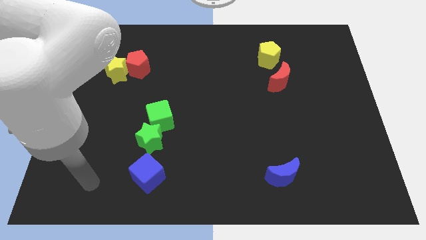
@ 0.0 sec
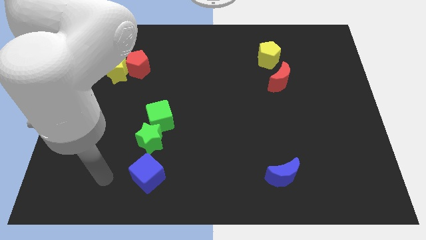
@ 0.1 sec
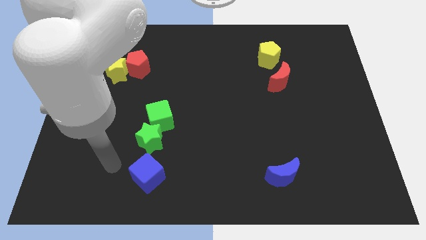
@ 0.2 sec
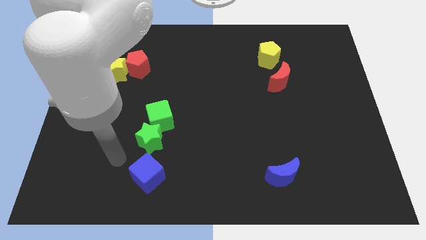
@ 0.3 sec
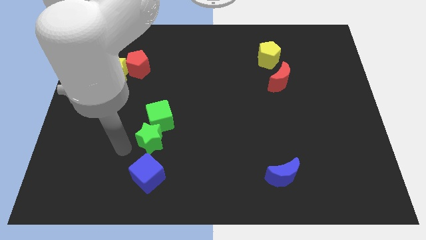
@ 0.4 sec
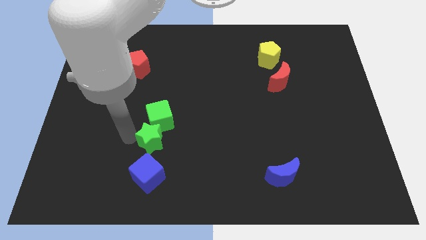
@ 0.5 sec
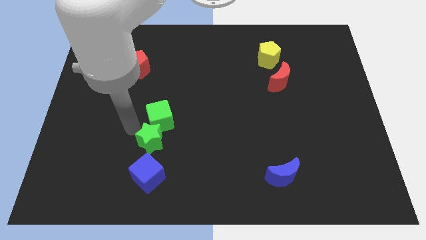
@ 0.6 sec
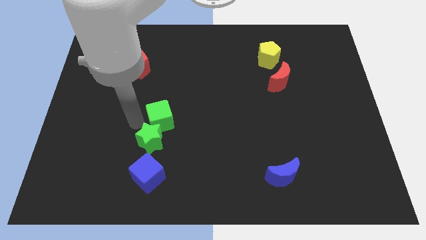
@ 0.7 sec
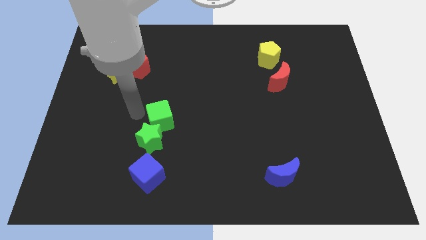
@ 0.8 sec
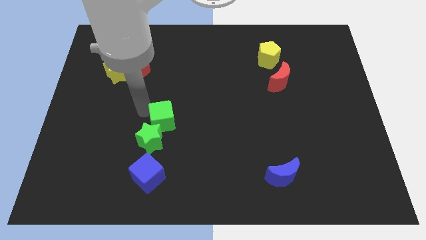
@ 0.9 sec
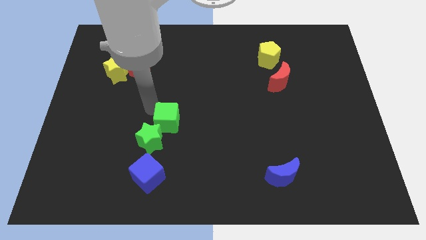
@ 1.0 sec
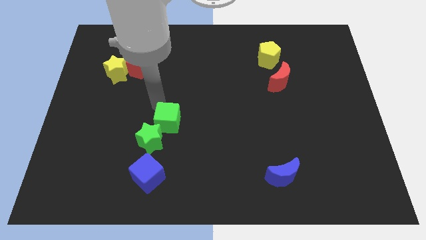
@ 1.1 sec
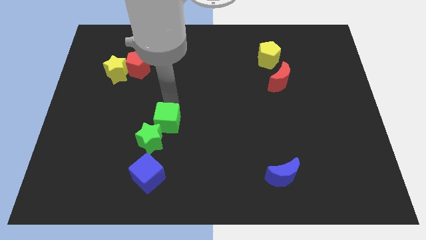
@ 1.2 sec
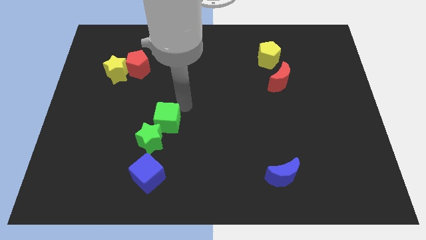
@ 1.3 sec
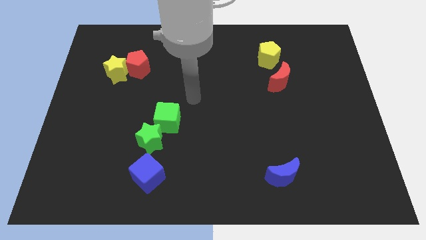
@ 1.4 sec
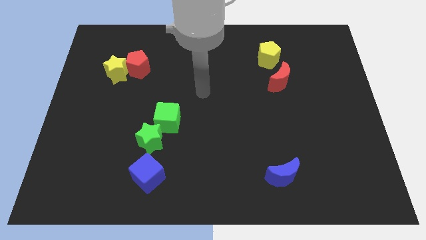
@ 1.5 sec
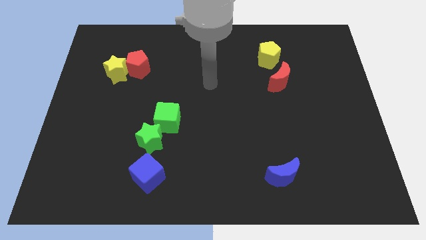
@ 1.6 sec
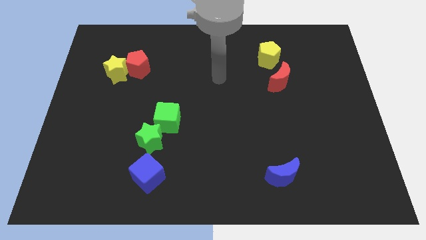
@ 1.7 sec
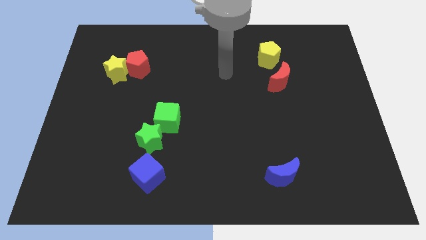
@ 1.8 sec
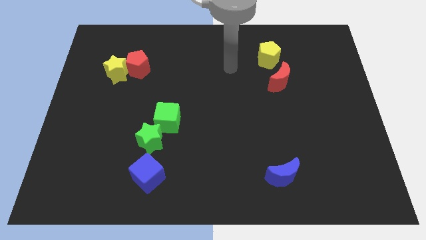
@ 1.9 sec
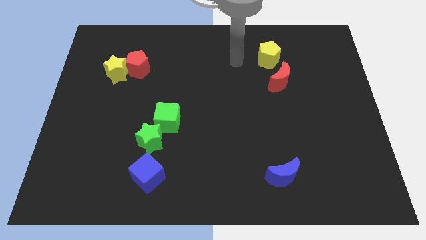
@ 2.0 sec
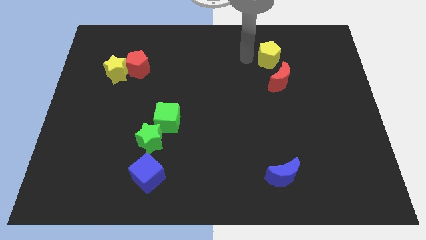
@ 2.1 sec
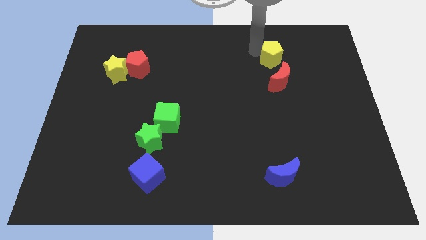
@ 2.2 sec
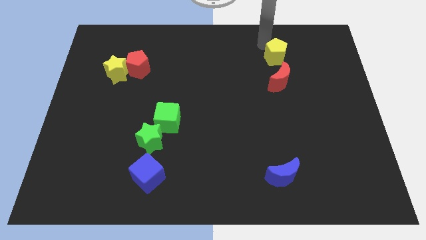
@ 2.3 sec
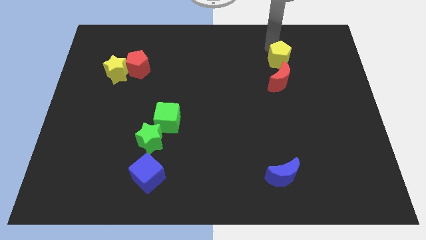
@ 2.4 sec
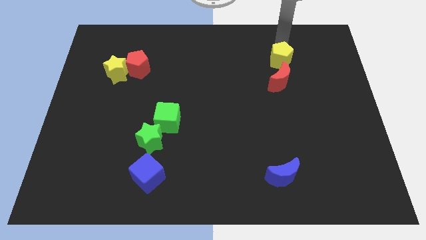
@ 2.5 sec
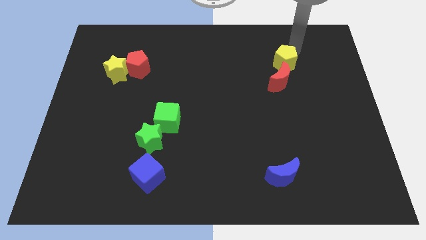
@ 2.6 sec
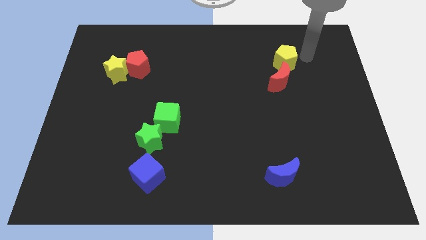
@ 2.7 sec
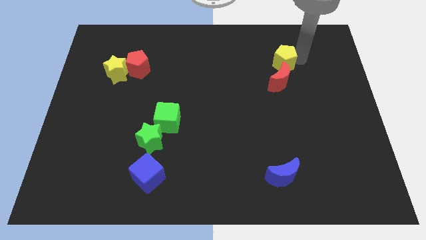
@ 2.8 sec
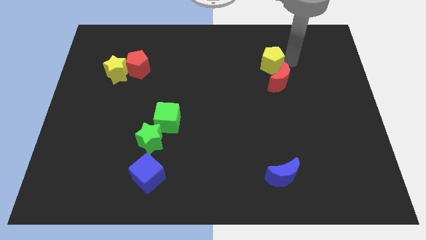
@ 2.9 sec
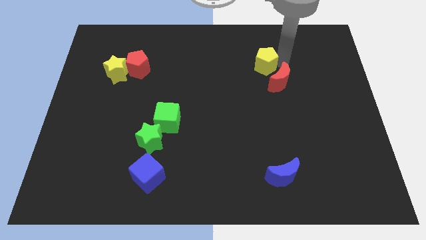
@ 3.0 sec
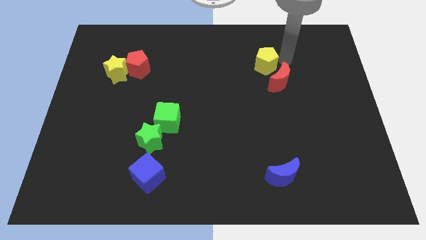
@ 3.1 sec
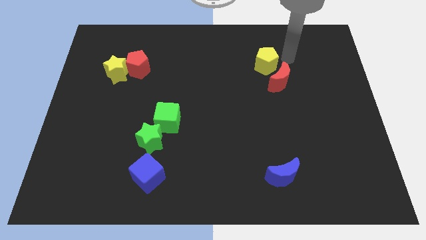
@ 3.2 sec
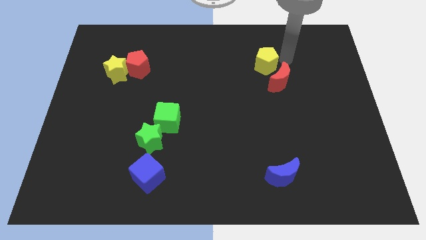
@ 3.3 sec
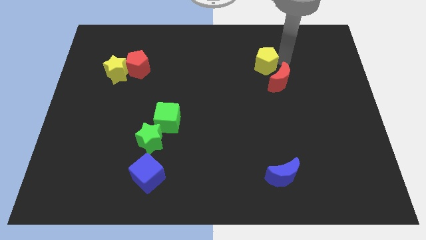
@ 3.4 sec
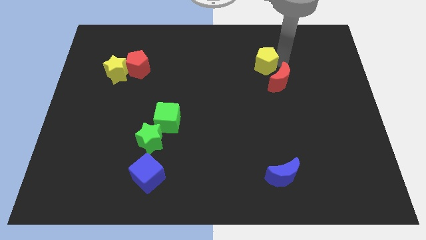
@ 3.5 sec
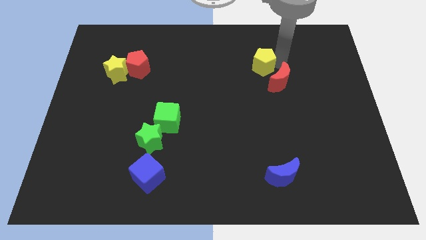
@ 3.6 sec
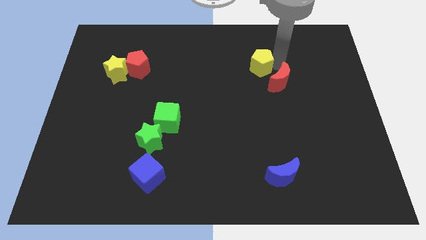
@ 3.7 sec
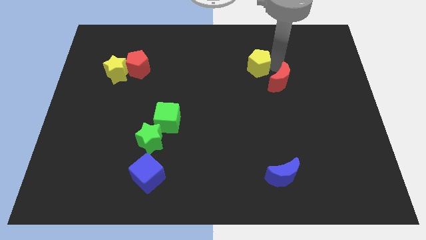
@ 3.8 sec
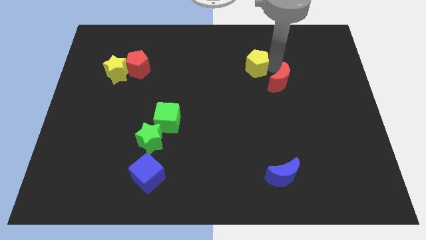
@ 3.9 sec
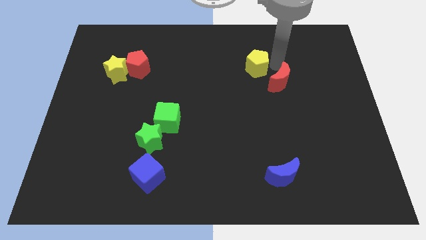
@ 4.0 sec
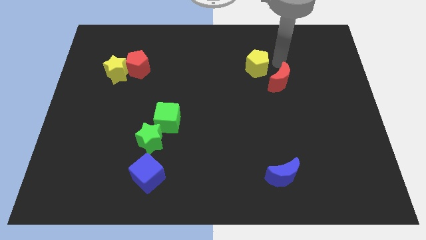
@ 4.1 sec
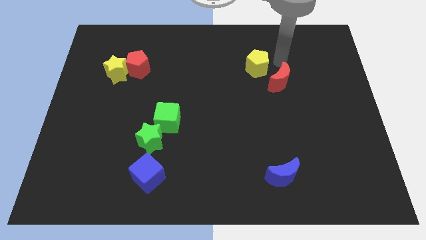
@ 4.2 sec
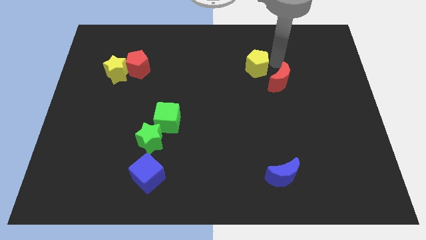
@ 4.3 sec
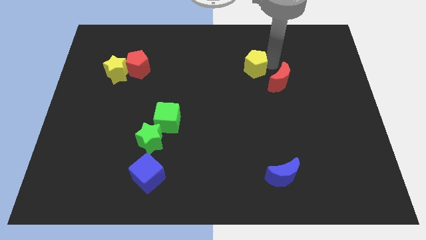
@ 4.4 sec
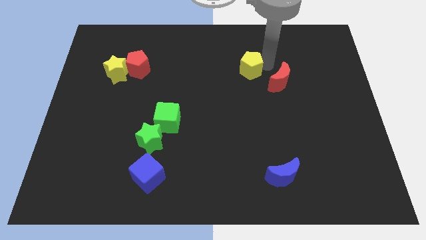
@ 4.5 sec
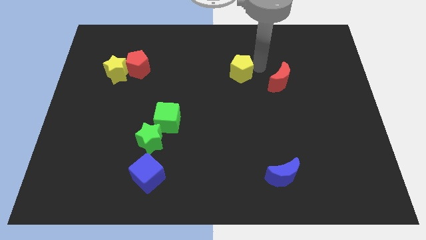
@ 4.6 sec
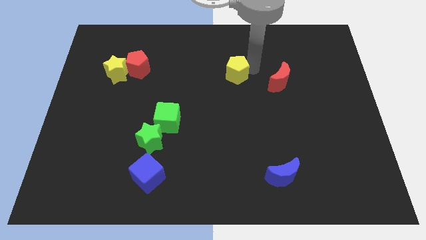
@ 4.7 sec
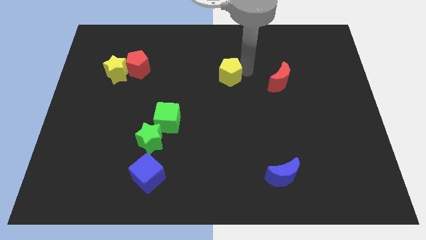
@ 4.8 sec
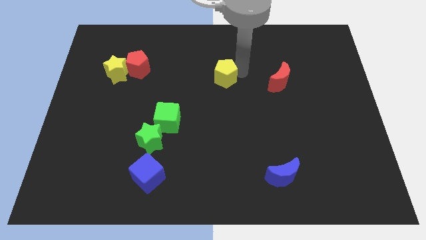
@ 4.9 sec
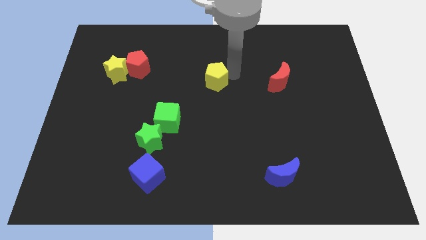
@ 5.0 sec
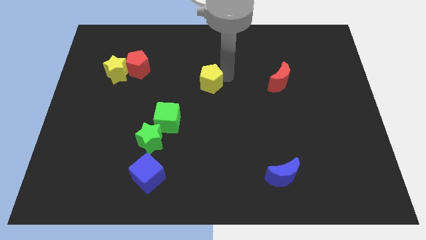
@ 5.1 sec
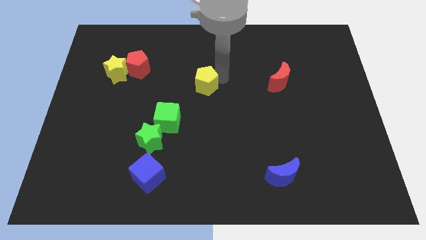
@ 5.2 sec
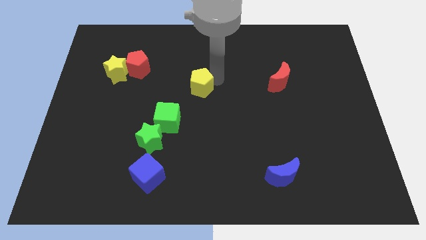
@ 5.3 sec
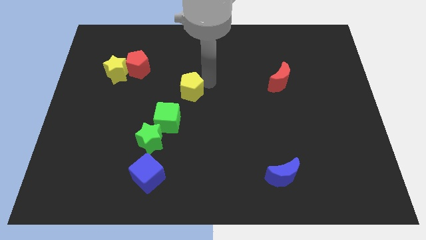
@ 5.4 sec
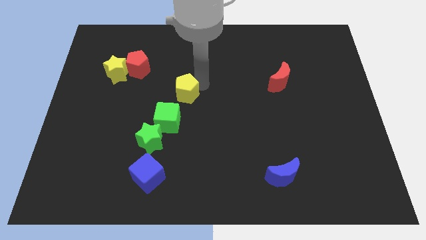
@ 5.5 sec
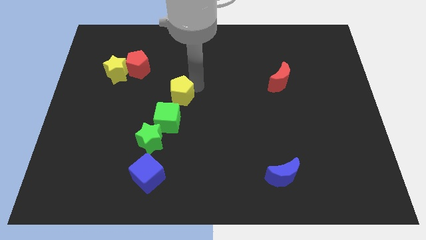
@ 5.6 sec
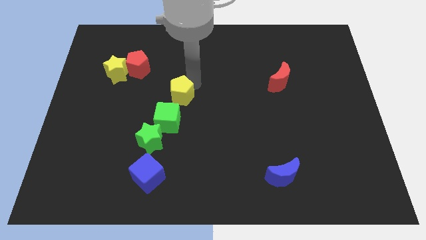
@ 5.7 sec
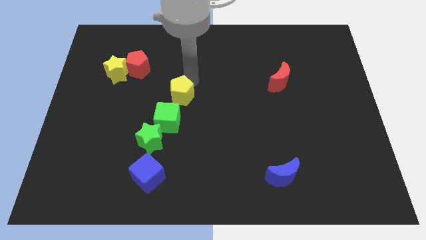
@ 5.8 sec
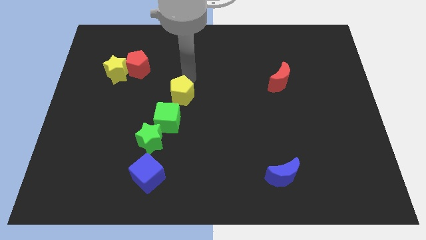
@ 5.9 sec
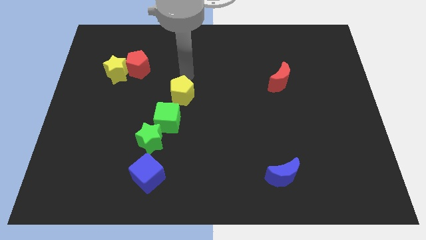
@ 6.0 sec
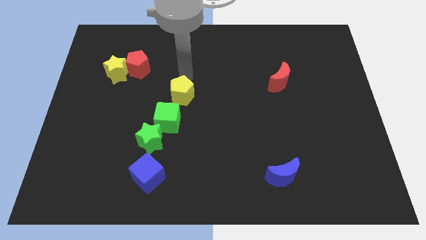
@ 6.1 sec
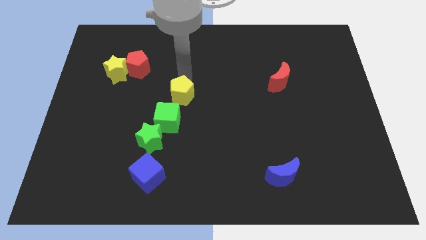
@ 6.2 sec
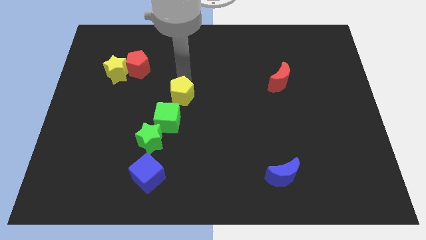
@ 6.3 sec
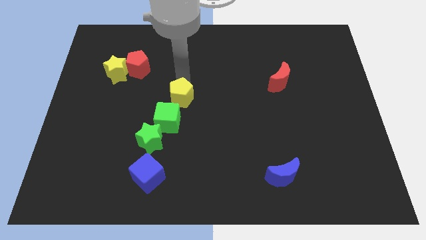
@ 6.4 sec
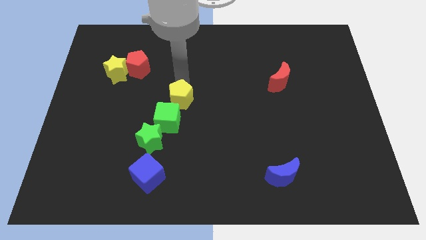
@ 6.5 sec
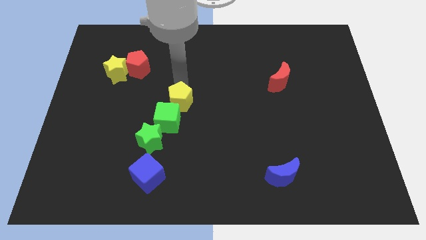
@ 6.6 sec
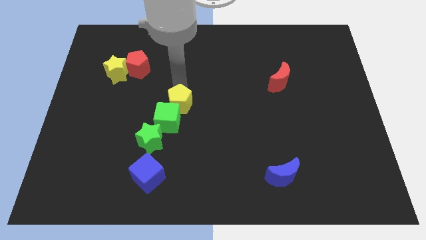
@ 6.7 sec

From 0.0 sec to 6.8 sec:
put the yellow pentagon towards the green cube

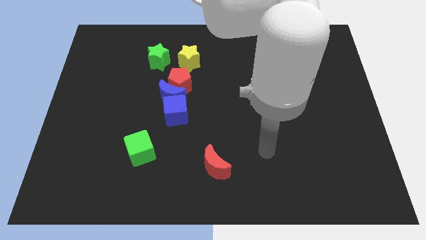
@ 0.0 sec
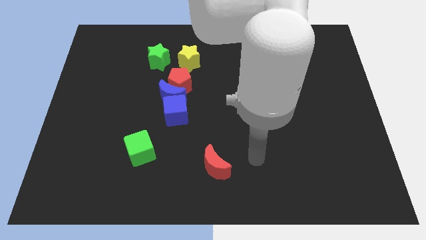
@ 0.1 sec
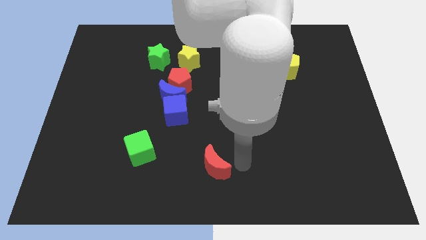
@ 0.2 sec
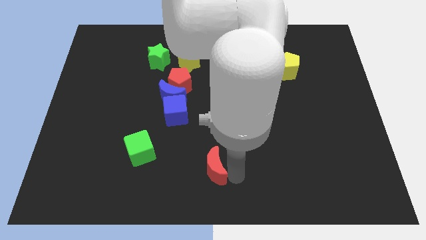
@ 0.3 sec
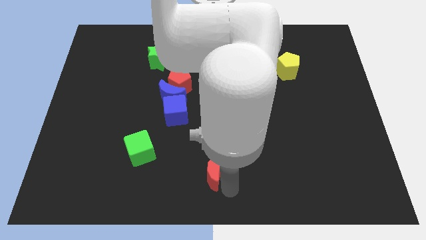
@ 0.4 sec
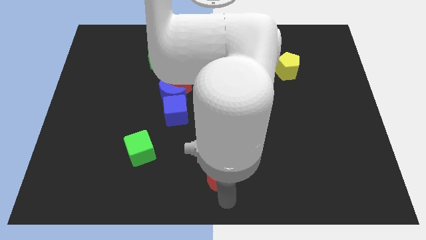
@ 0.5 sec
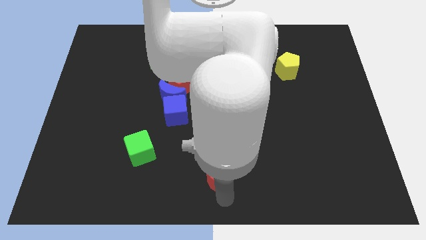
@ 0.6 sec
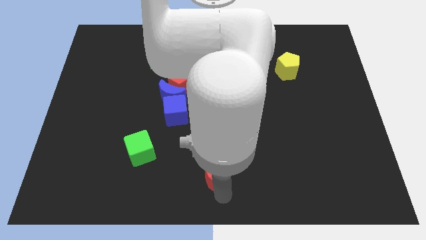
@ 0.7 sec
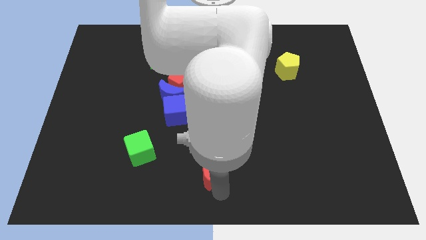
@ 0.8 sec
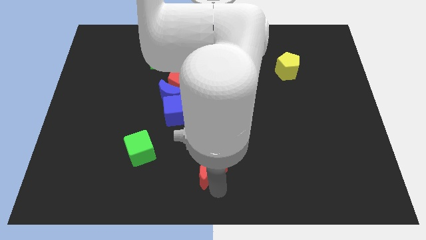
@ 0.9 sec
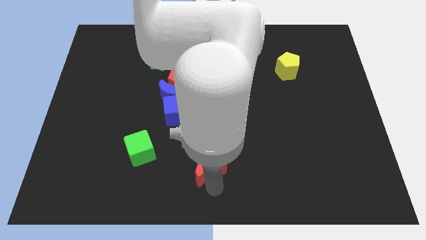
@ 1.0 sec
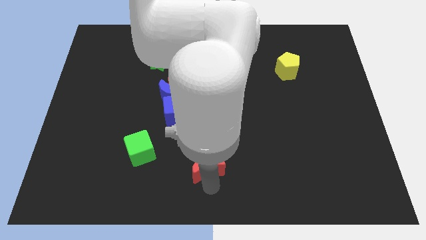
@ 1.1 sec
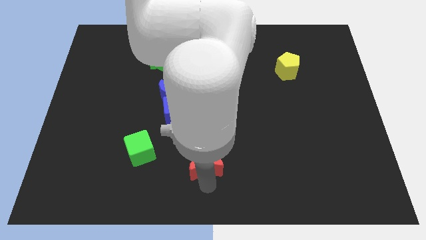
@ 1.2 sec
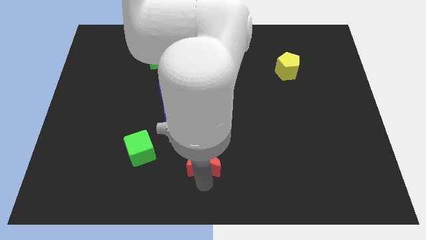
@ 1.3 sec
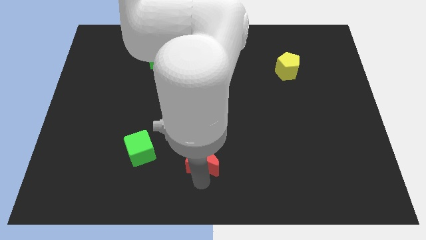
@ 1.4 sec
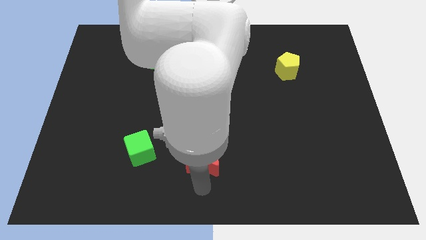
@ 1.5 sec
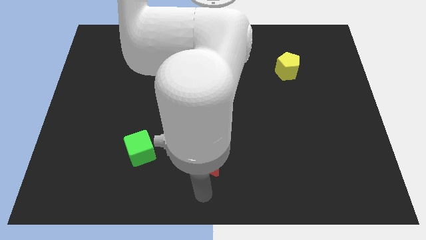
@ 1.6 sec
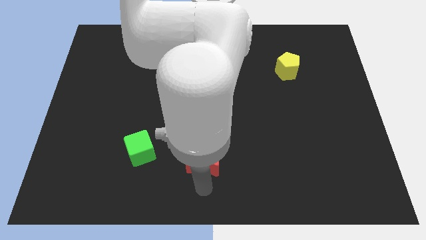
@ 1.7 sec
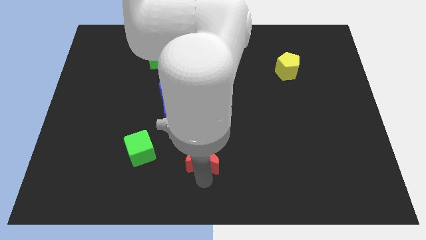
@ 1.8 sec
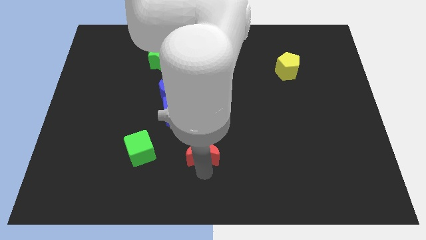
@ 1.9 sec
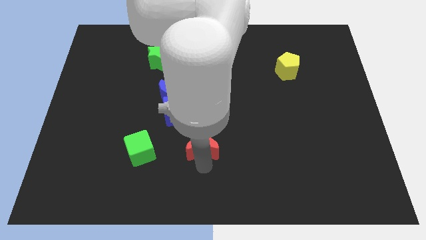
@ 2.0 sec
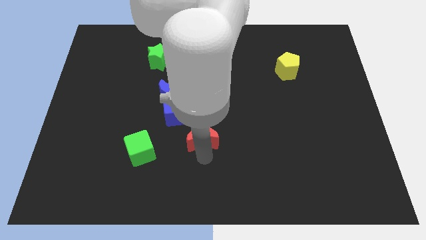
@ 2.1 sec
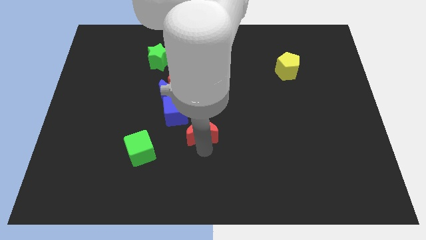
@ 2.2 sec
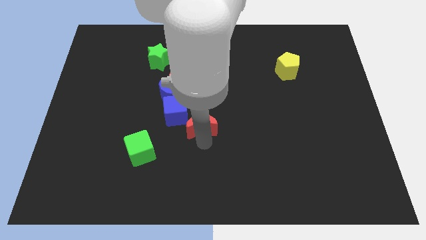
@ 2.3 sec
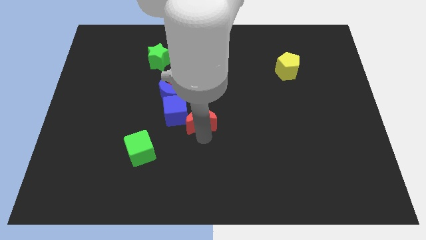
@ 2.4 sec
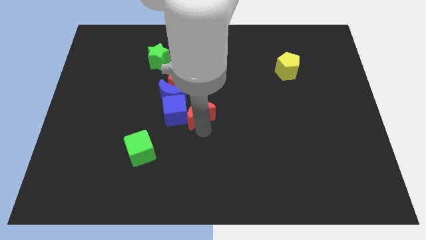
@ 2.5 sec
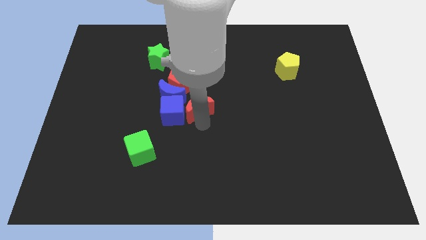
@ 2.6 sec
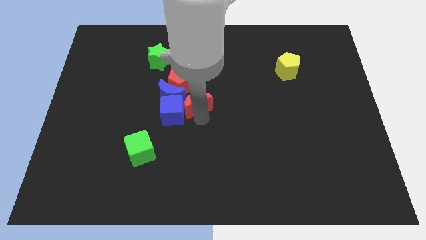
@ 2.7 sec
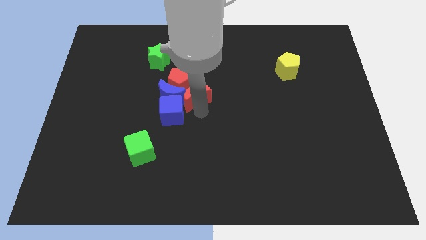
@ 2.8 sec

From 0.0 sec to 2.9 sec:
put the red moon to the red pentagon
